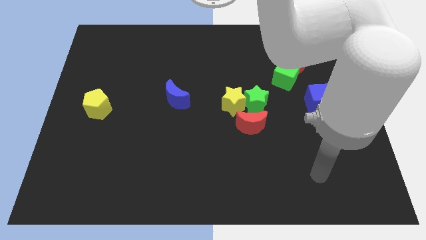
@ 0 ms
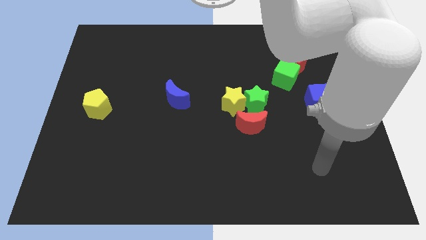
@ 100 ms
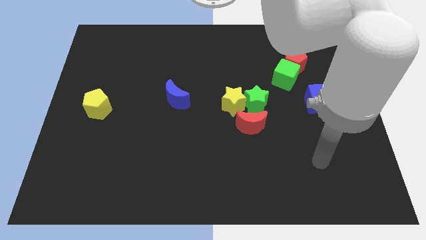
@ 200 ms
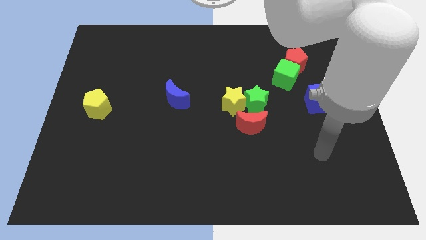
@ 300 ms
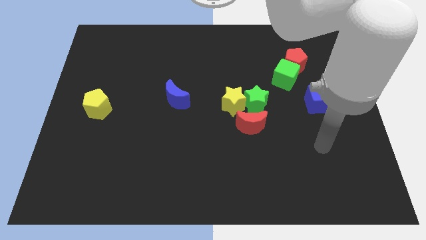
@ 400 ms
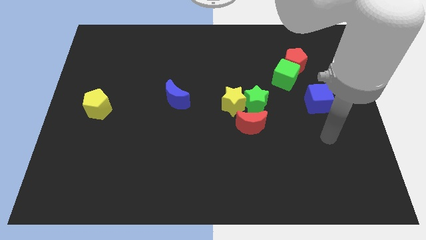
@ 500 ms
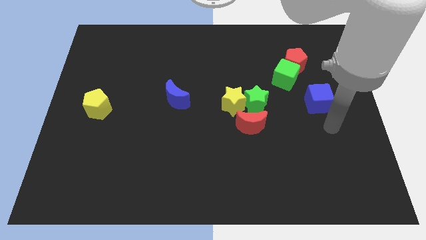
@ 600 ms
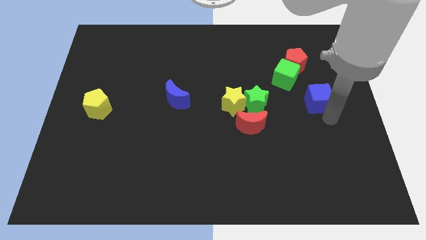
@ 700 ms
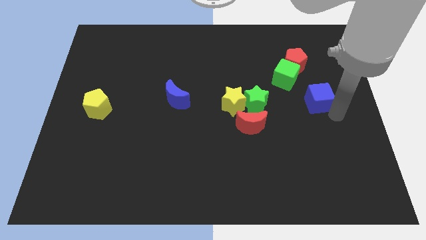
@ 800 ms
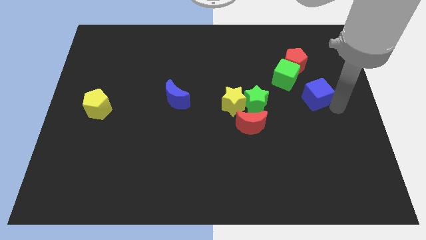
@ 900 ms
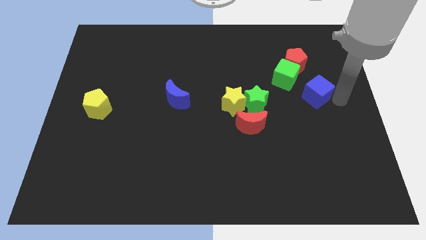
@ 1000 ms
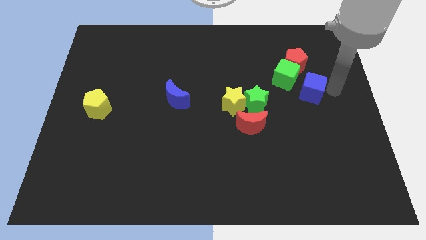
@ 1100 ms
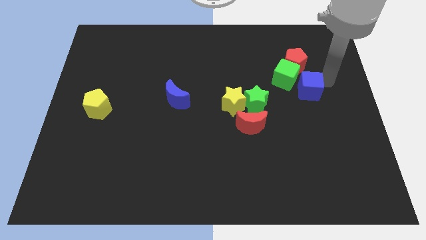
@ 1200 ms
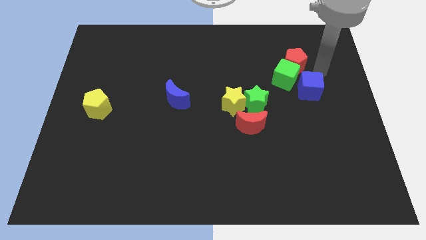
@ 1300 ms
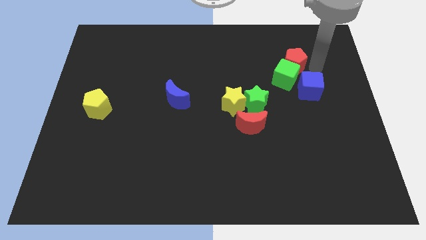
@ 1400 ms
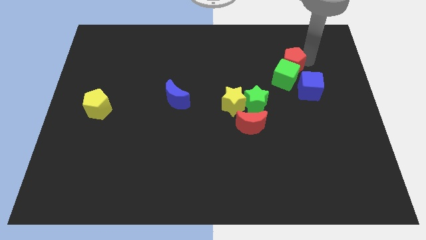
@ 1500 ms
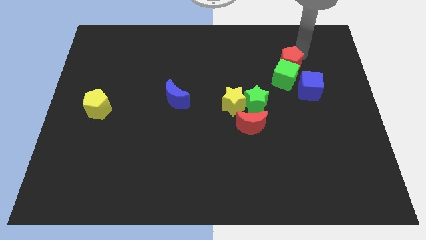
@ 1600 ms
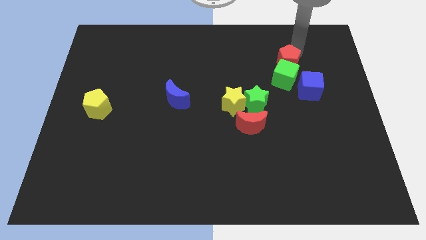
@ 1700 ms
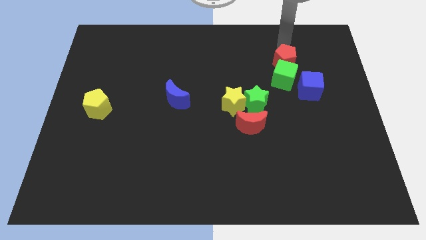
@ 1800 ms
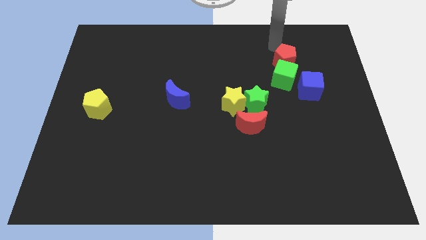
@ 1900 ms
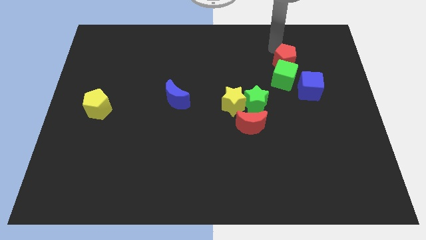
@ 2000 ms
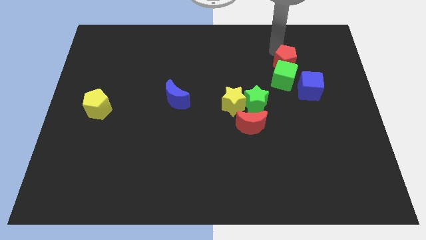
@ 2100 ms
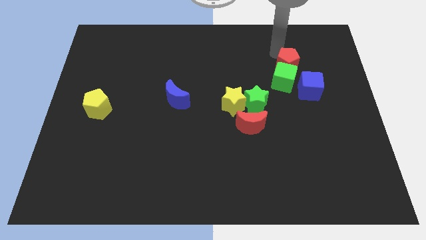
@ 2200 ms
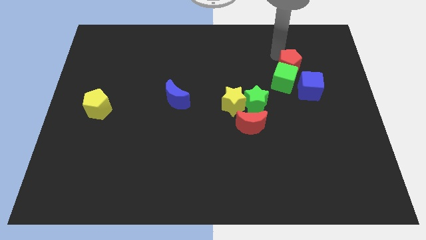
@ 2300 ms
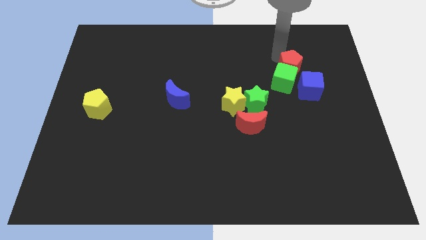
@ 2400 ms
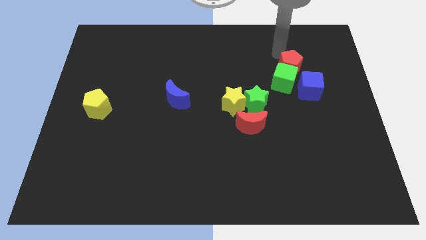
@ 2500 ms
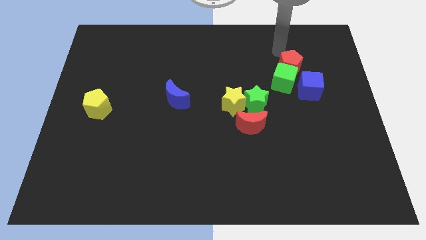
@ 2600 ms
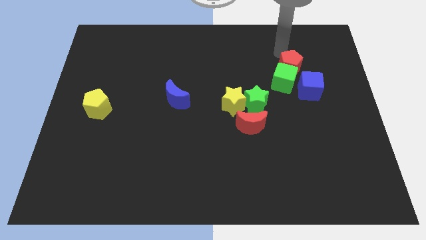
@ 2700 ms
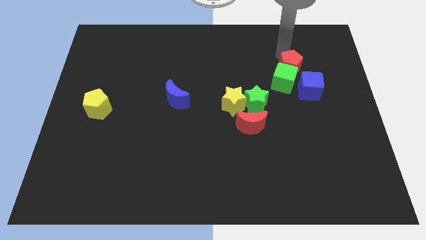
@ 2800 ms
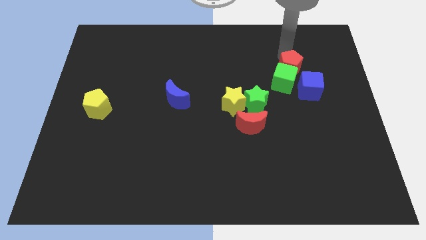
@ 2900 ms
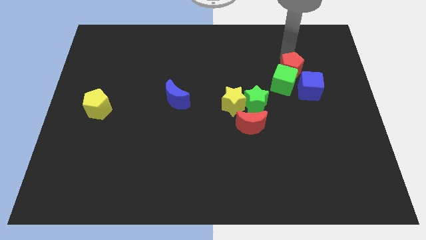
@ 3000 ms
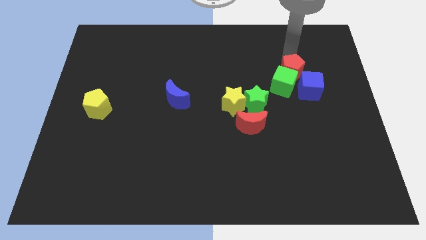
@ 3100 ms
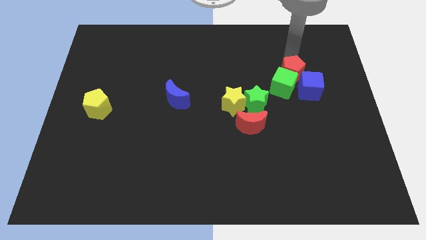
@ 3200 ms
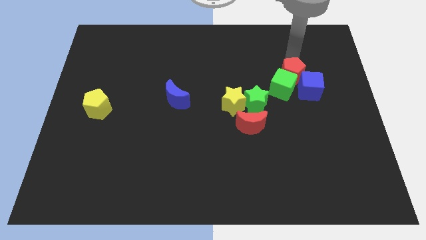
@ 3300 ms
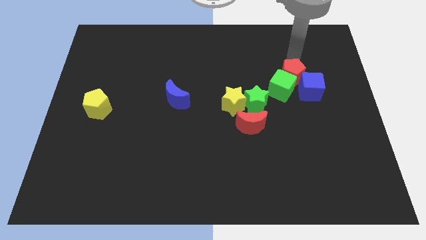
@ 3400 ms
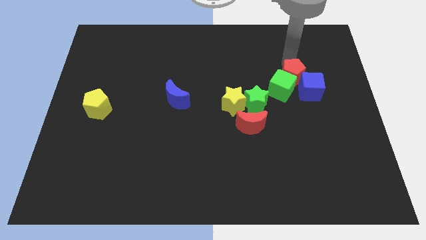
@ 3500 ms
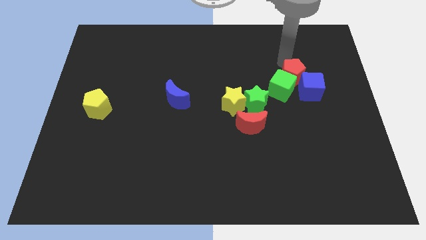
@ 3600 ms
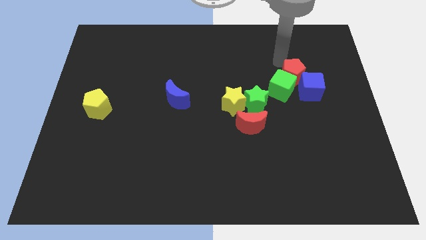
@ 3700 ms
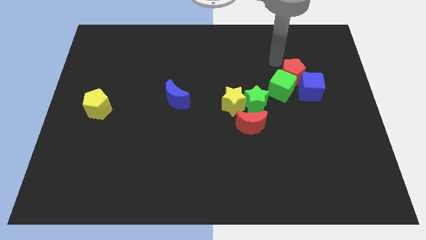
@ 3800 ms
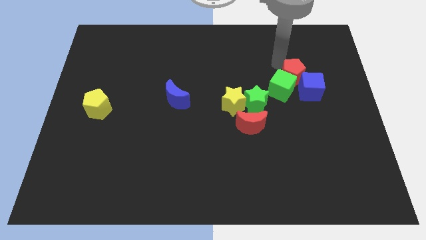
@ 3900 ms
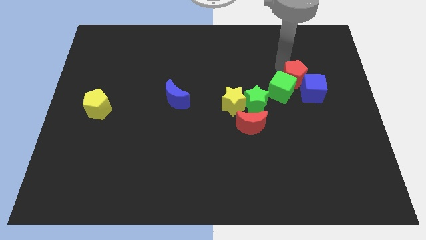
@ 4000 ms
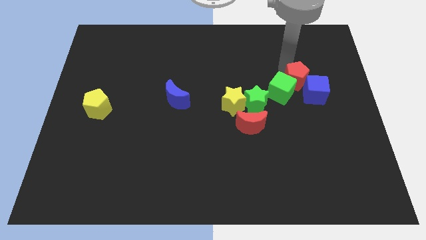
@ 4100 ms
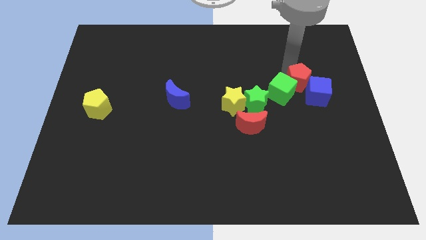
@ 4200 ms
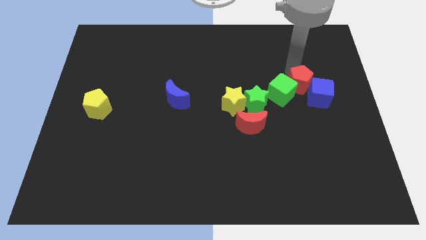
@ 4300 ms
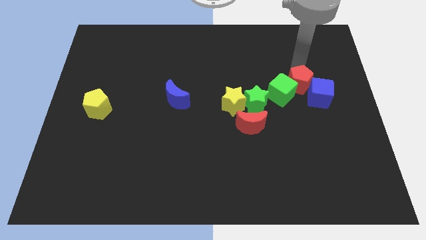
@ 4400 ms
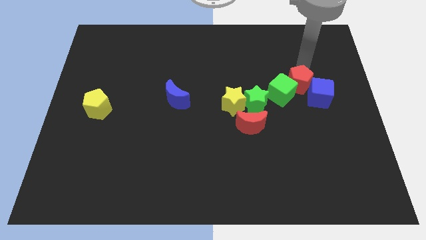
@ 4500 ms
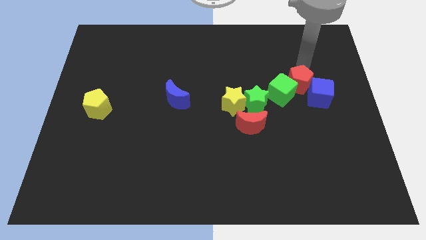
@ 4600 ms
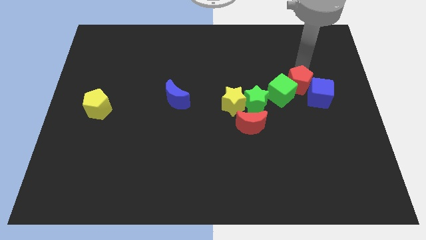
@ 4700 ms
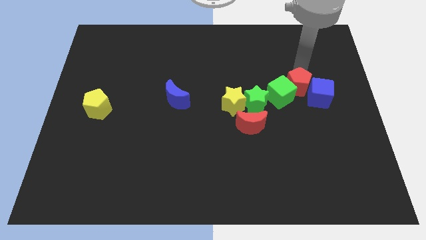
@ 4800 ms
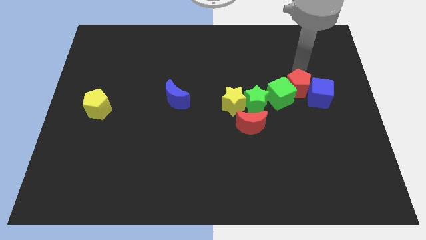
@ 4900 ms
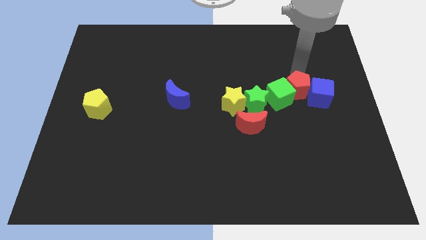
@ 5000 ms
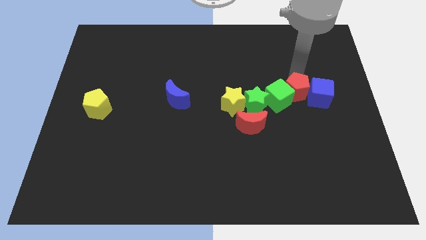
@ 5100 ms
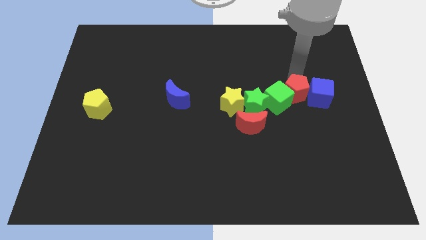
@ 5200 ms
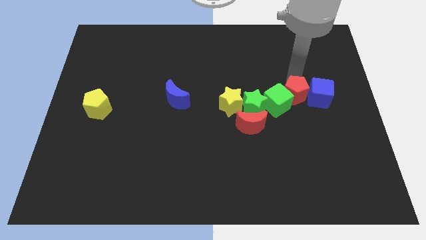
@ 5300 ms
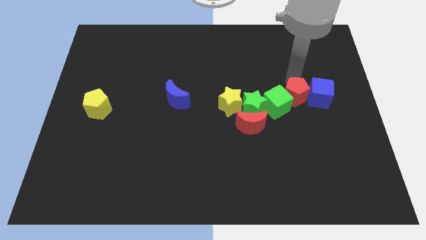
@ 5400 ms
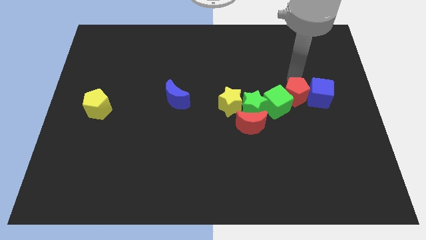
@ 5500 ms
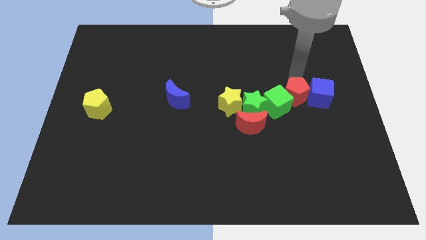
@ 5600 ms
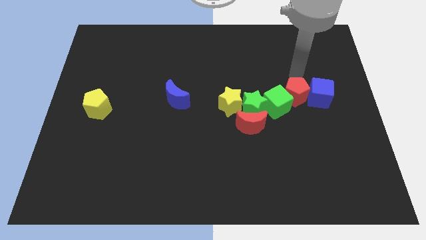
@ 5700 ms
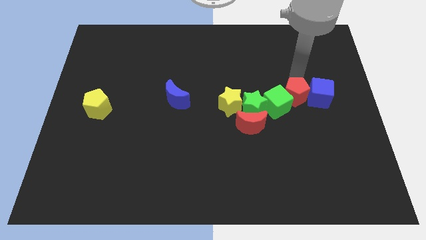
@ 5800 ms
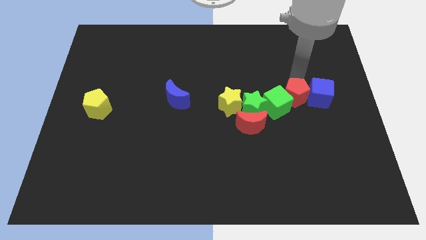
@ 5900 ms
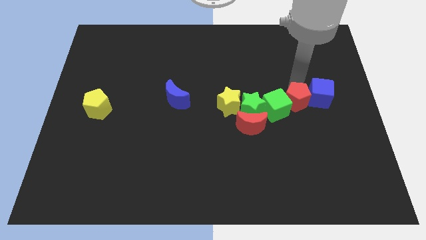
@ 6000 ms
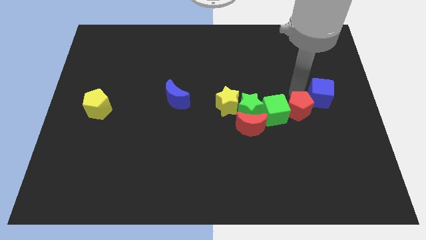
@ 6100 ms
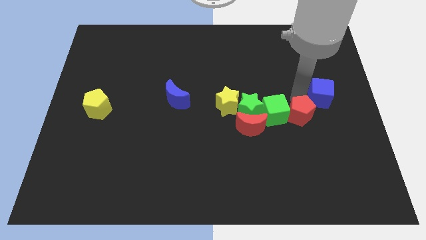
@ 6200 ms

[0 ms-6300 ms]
push the red pentagon to the right side of the red moon

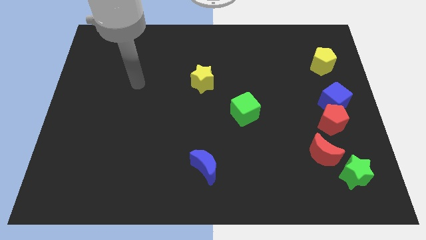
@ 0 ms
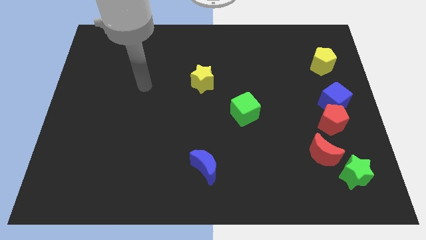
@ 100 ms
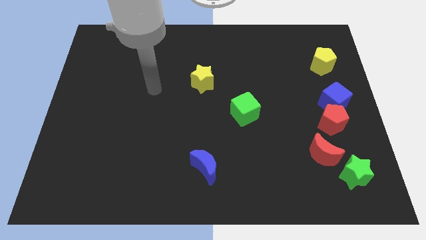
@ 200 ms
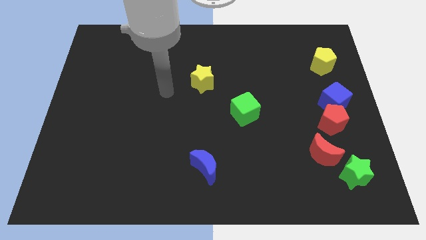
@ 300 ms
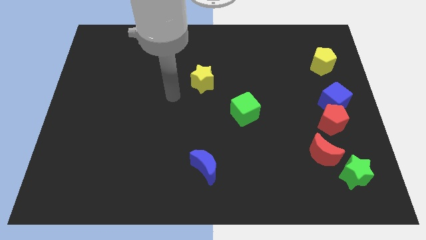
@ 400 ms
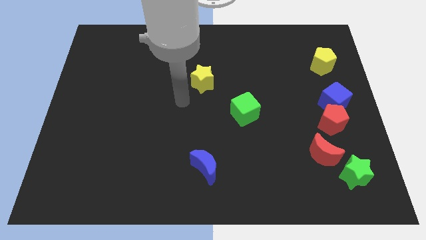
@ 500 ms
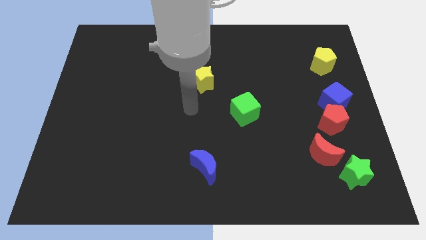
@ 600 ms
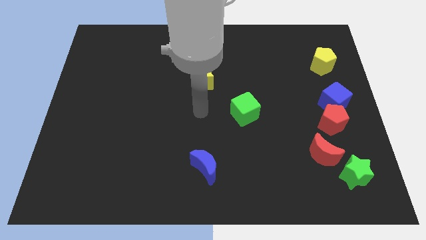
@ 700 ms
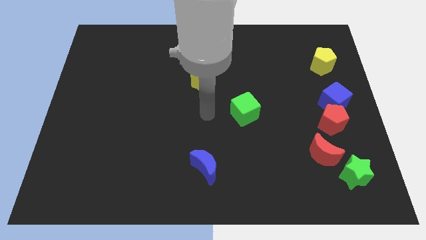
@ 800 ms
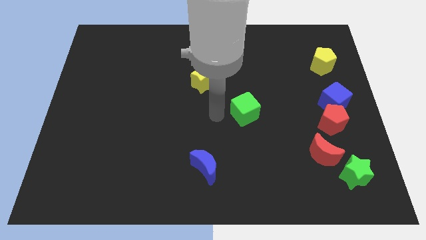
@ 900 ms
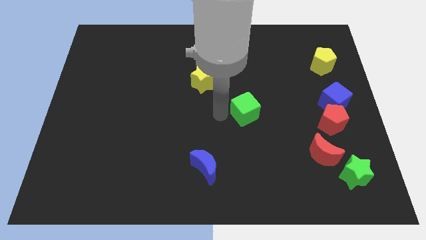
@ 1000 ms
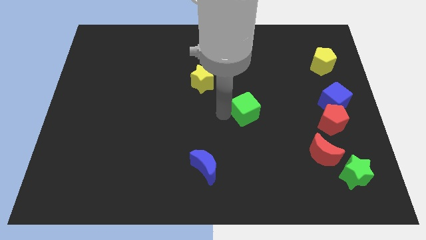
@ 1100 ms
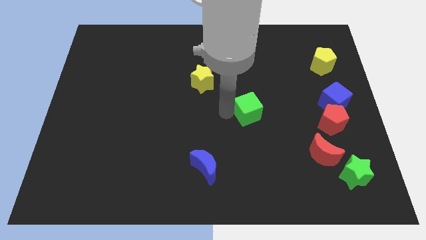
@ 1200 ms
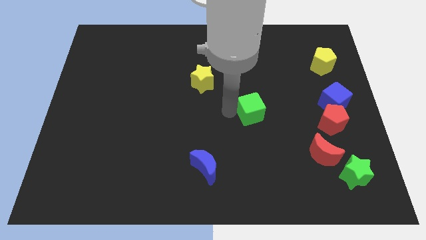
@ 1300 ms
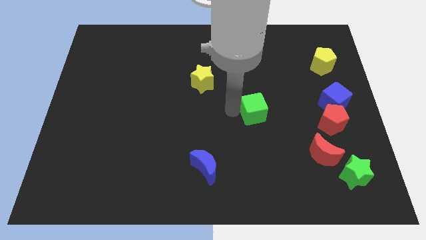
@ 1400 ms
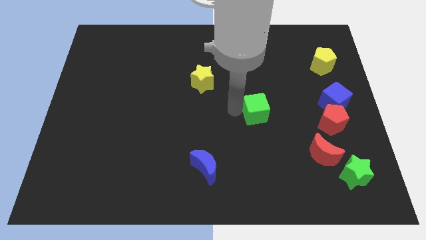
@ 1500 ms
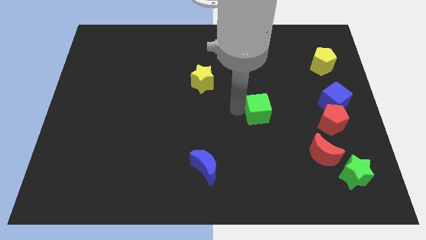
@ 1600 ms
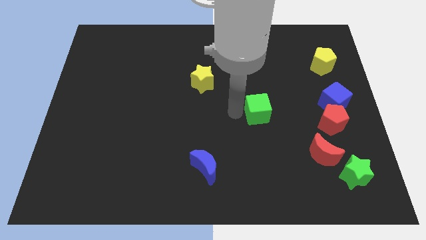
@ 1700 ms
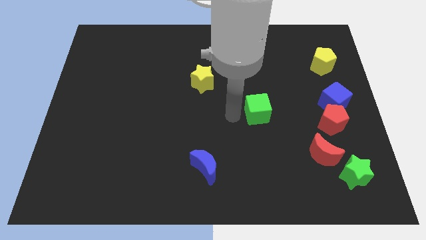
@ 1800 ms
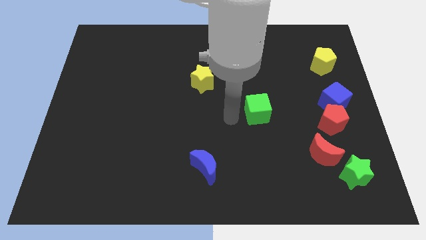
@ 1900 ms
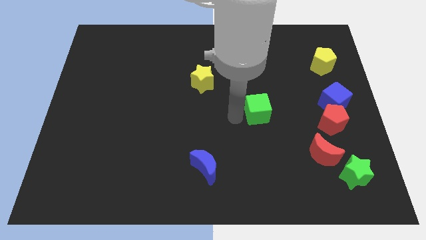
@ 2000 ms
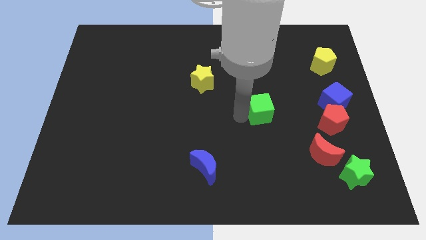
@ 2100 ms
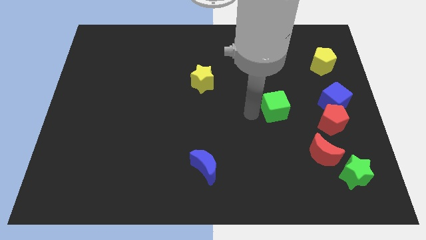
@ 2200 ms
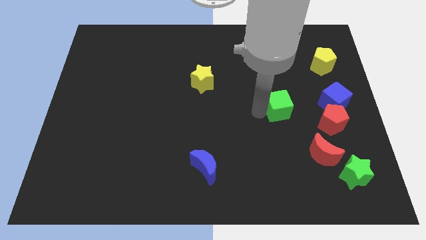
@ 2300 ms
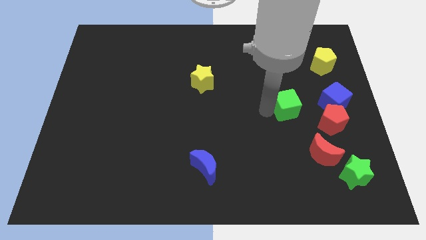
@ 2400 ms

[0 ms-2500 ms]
move the green cube to the top left of the red pentagon
